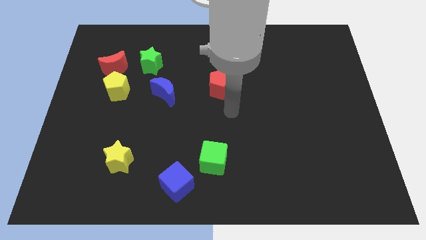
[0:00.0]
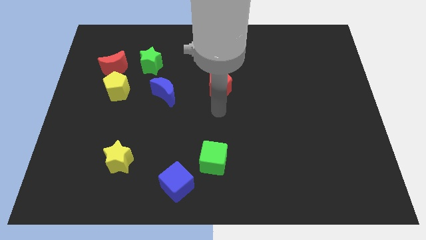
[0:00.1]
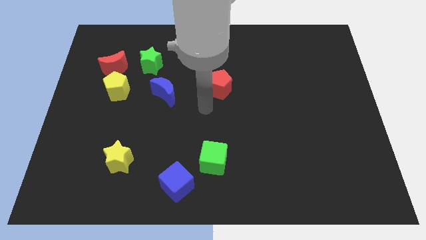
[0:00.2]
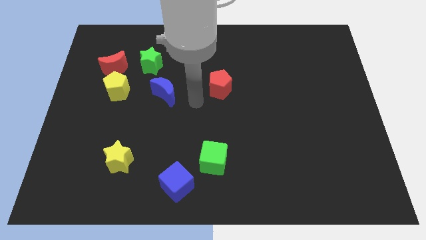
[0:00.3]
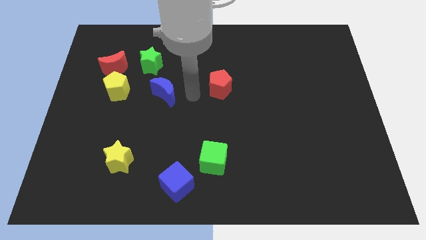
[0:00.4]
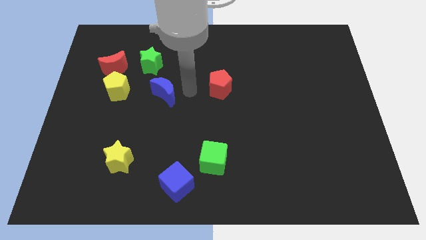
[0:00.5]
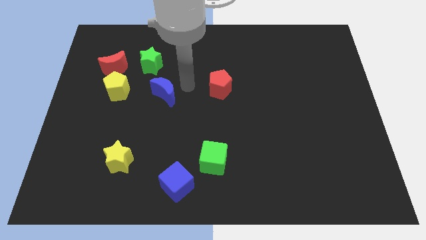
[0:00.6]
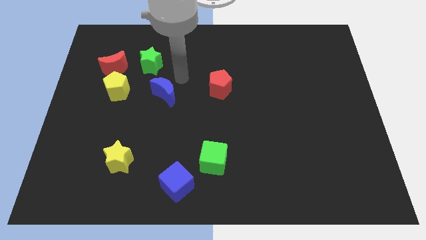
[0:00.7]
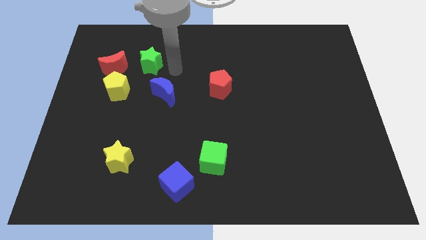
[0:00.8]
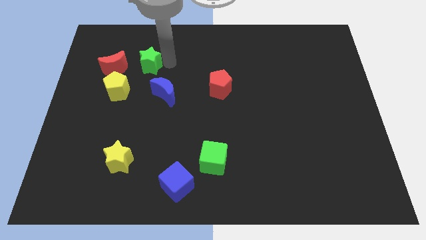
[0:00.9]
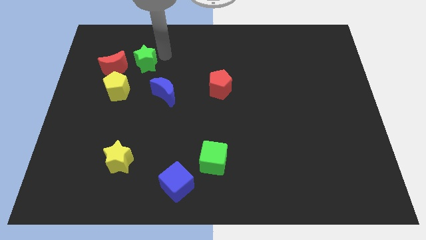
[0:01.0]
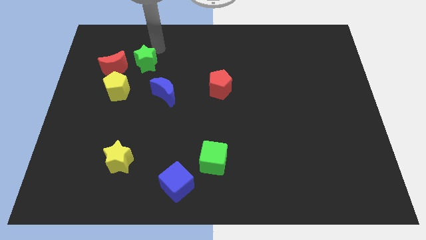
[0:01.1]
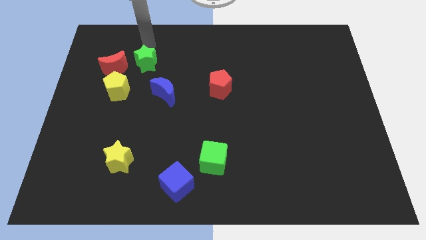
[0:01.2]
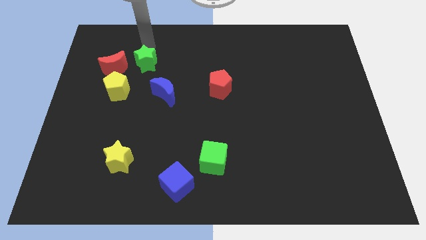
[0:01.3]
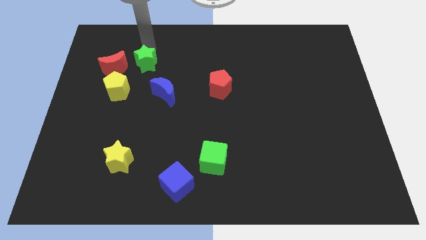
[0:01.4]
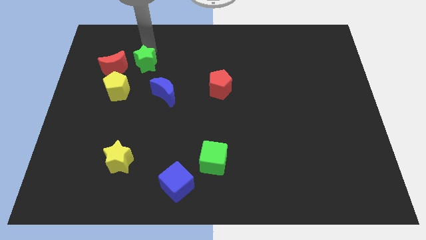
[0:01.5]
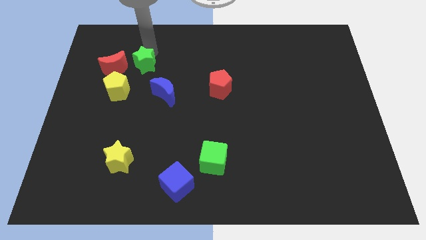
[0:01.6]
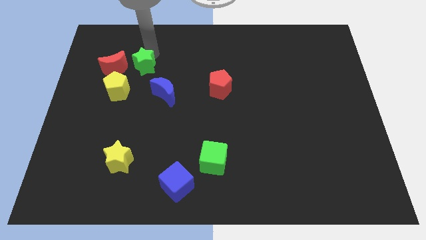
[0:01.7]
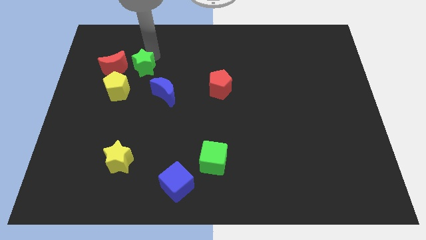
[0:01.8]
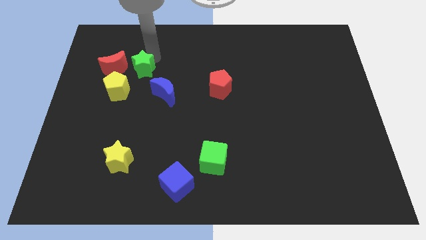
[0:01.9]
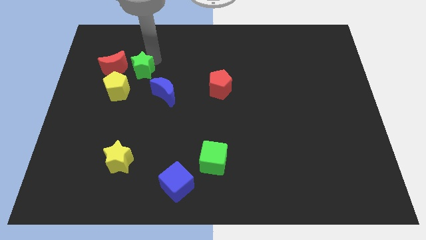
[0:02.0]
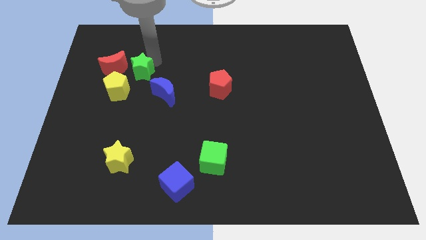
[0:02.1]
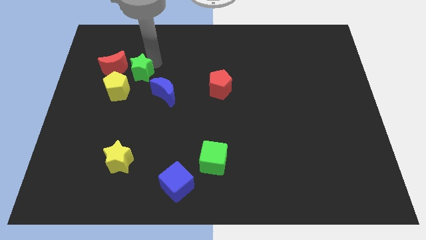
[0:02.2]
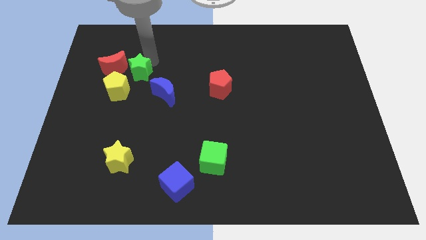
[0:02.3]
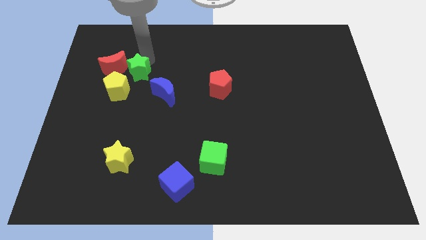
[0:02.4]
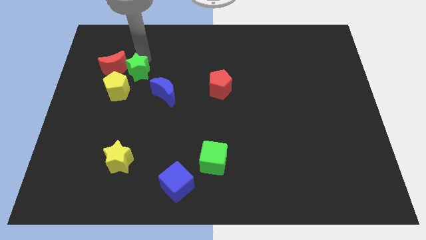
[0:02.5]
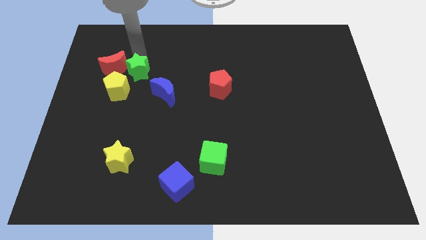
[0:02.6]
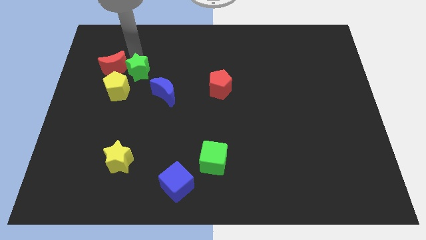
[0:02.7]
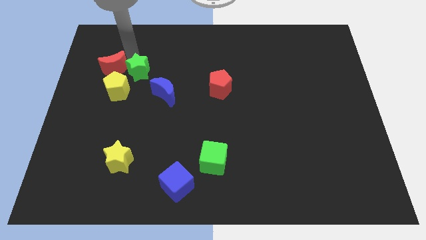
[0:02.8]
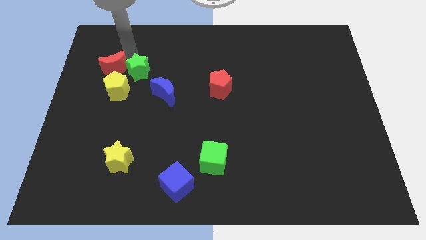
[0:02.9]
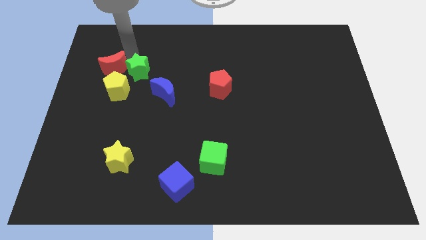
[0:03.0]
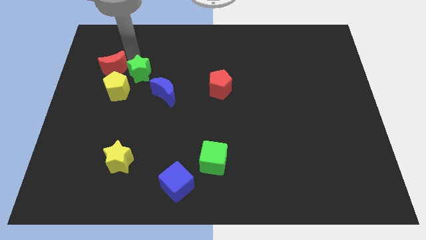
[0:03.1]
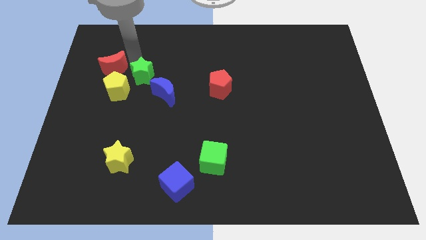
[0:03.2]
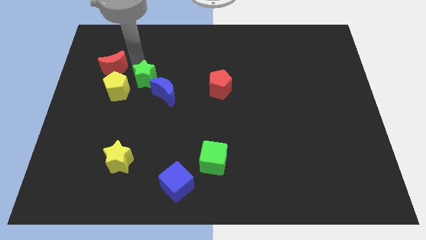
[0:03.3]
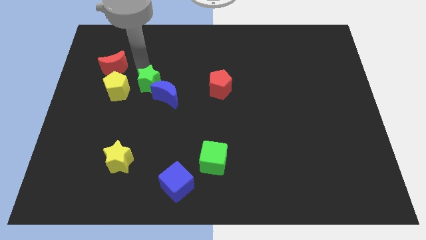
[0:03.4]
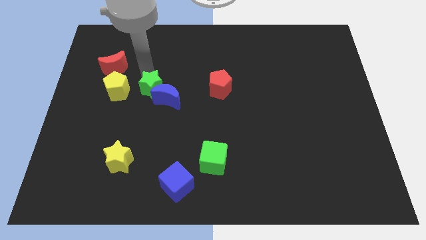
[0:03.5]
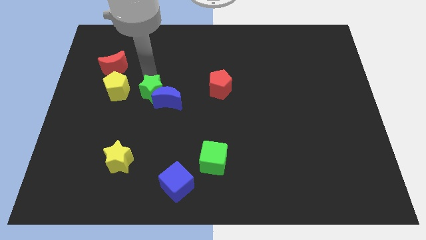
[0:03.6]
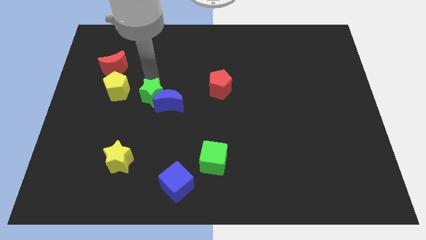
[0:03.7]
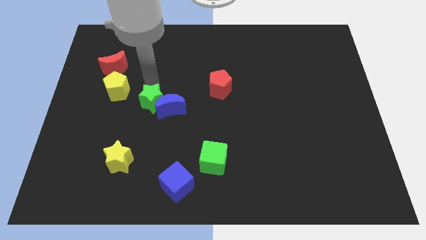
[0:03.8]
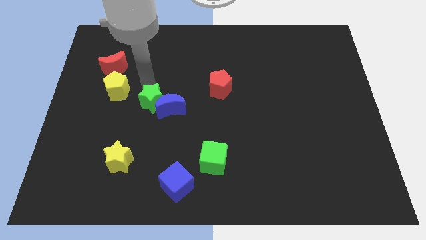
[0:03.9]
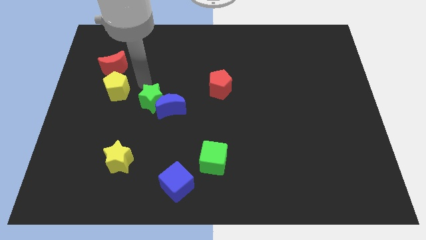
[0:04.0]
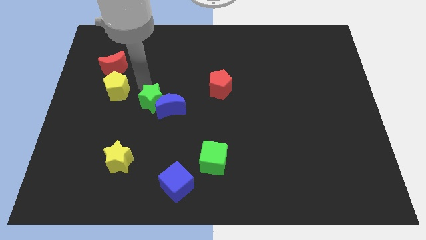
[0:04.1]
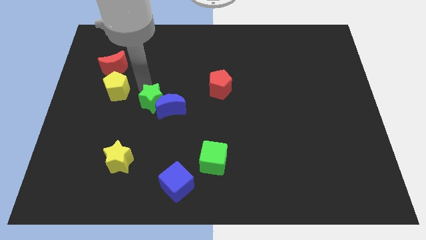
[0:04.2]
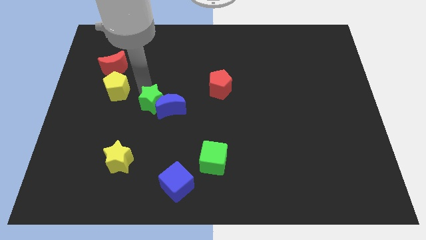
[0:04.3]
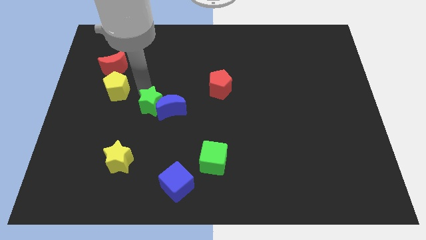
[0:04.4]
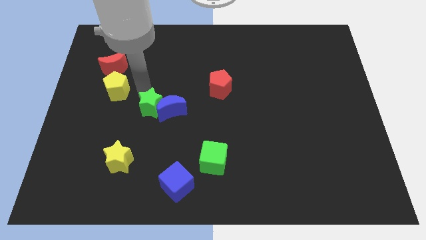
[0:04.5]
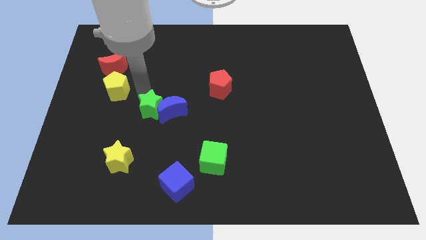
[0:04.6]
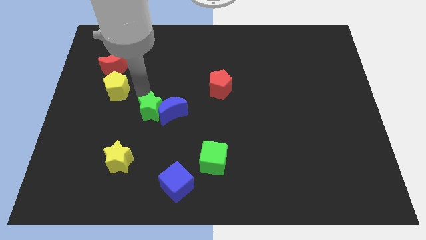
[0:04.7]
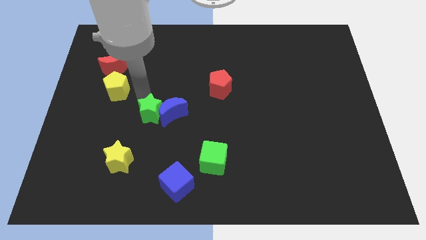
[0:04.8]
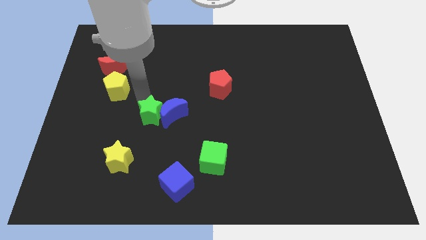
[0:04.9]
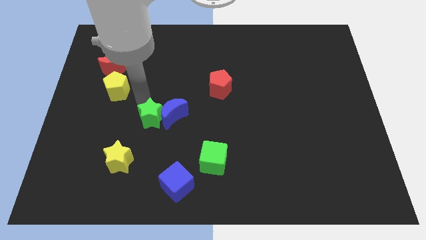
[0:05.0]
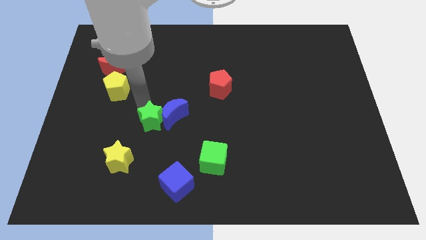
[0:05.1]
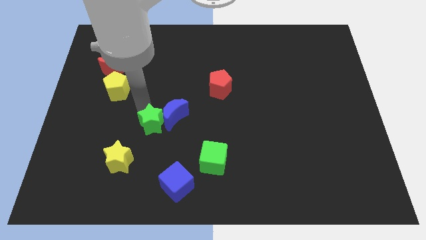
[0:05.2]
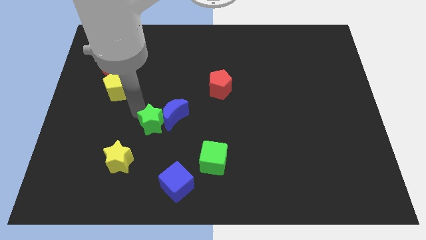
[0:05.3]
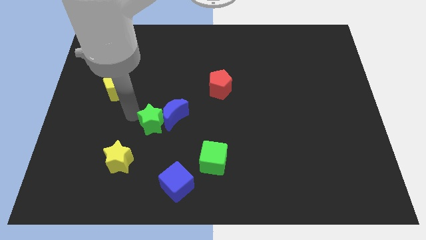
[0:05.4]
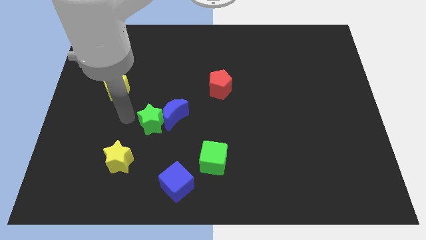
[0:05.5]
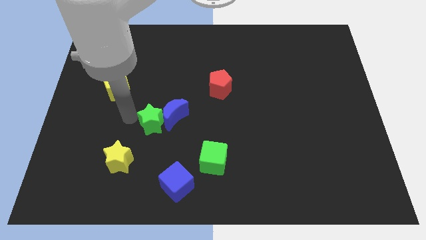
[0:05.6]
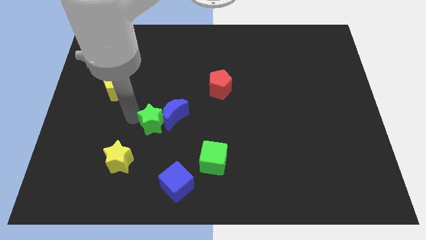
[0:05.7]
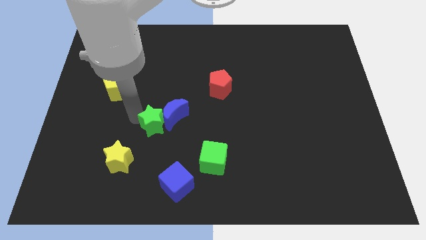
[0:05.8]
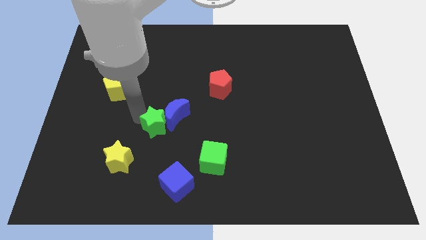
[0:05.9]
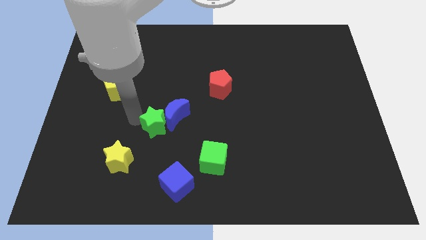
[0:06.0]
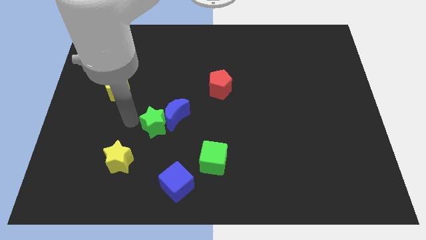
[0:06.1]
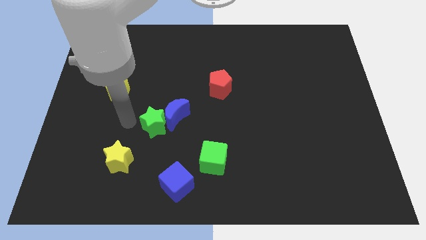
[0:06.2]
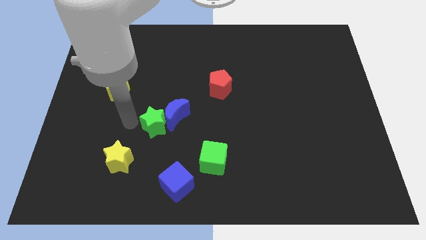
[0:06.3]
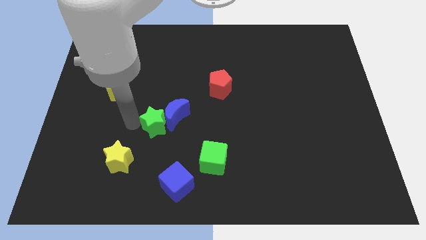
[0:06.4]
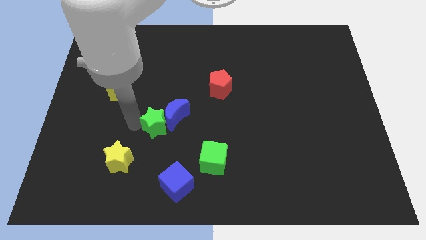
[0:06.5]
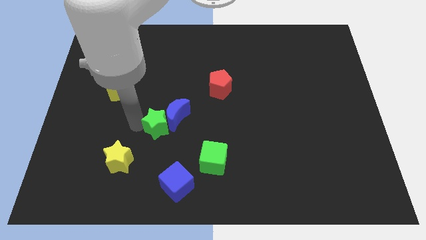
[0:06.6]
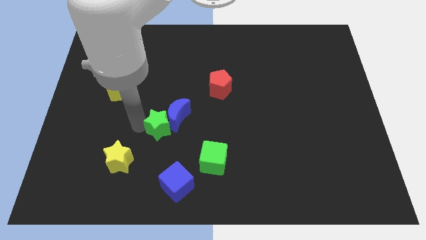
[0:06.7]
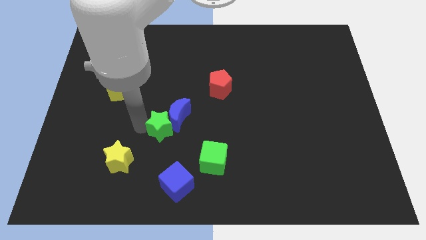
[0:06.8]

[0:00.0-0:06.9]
slide the green star to the top side of the blue cube
